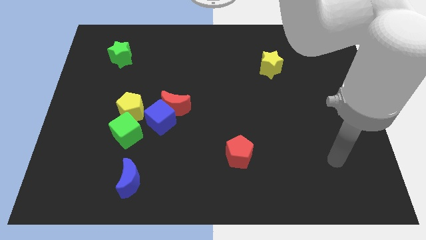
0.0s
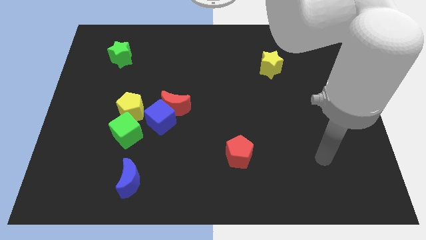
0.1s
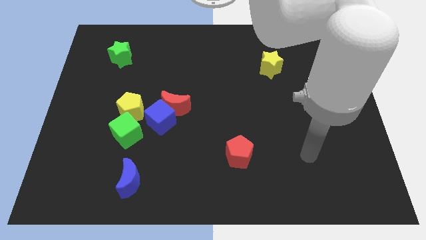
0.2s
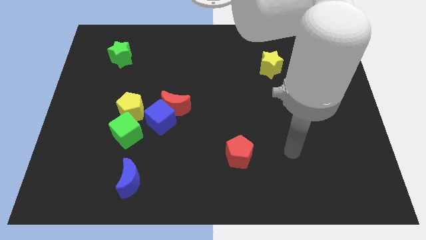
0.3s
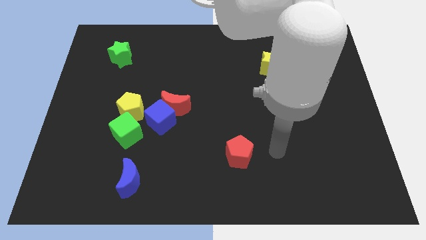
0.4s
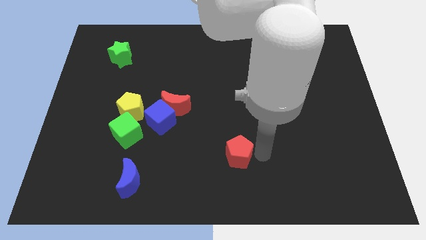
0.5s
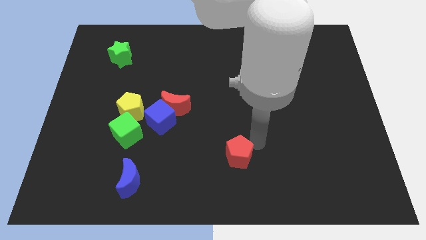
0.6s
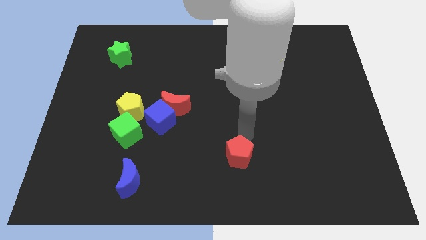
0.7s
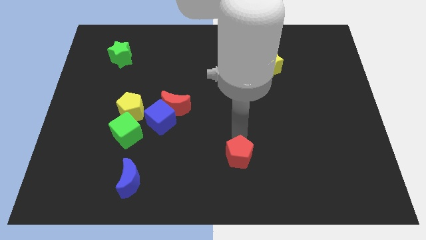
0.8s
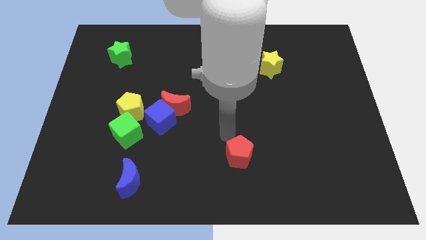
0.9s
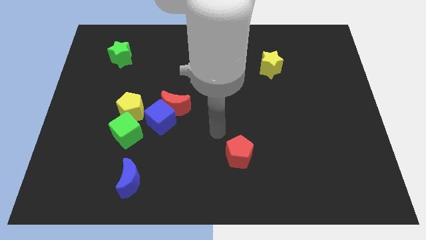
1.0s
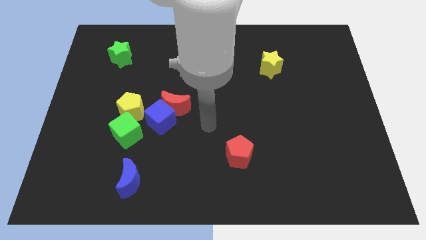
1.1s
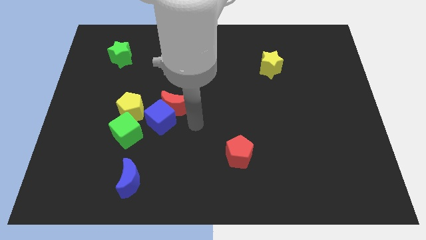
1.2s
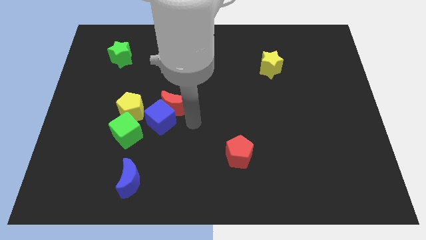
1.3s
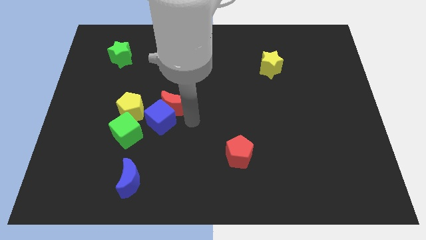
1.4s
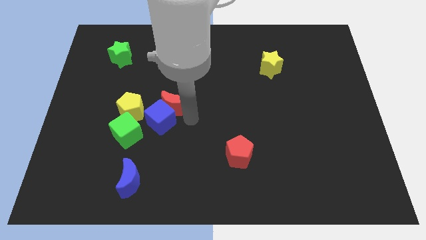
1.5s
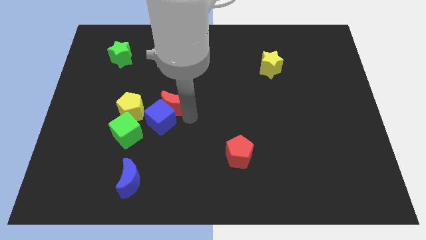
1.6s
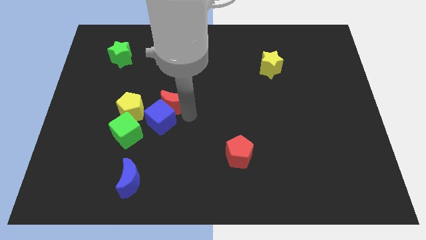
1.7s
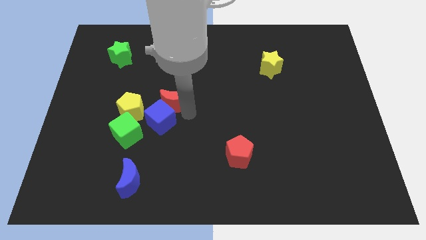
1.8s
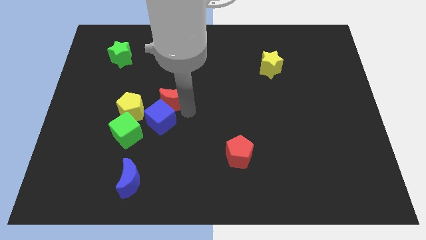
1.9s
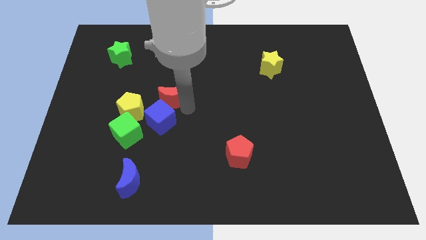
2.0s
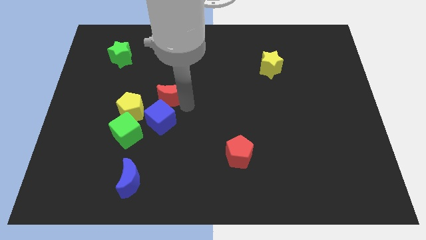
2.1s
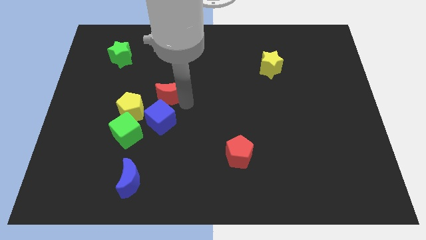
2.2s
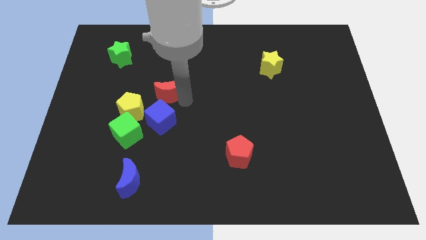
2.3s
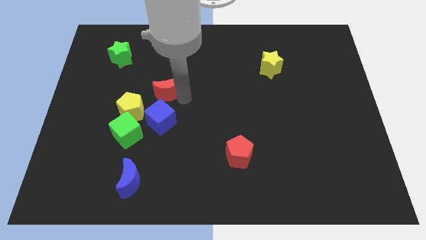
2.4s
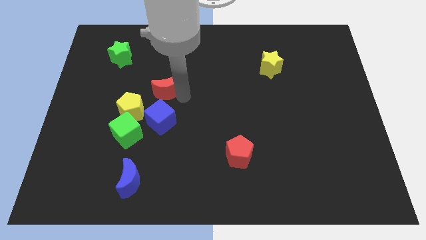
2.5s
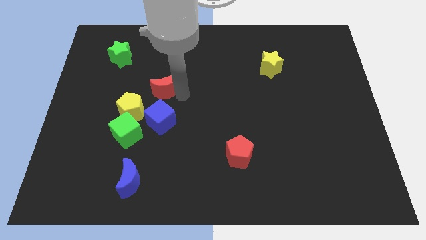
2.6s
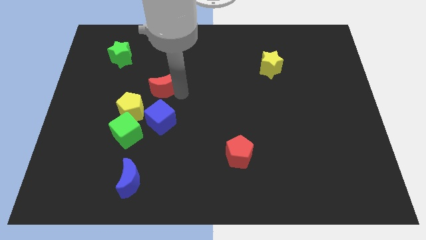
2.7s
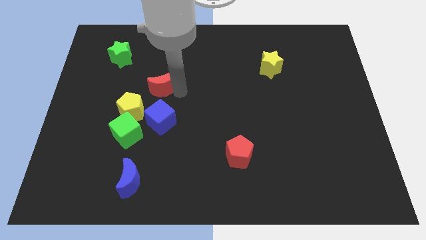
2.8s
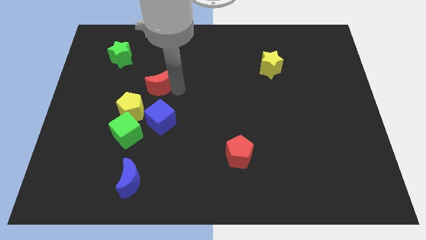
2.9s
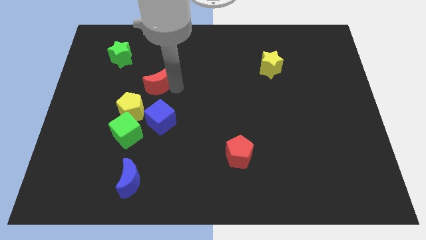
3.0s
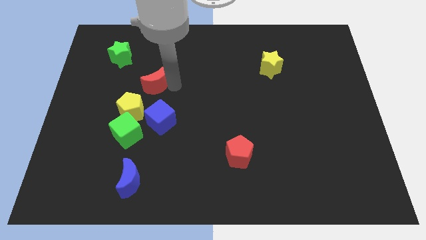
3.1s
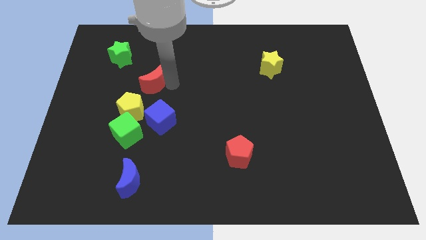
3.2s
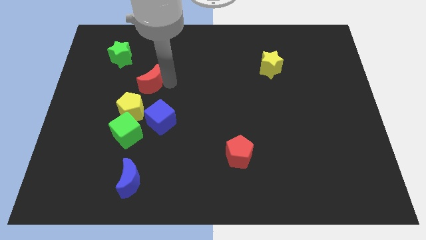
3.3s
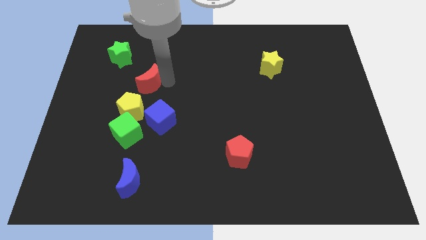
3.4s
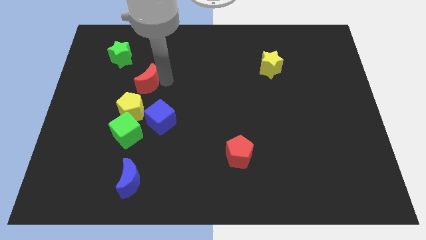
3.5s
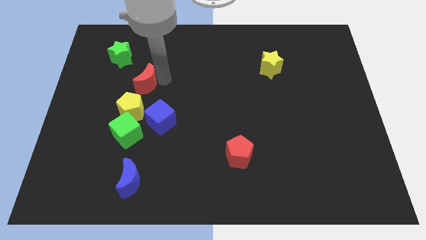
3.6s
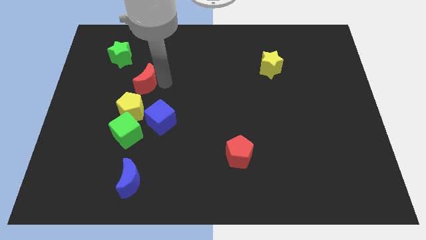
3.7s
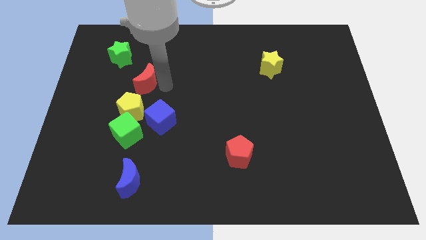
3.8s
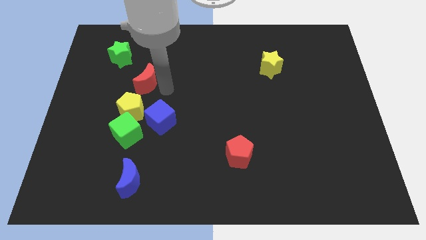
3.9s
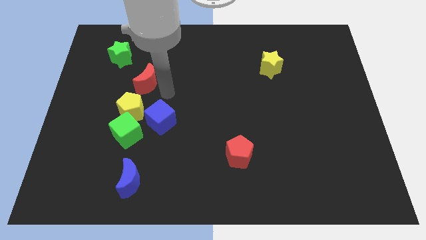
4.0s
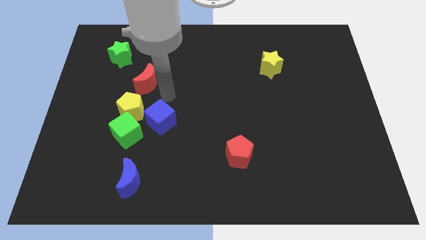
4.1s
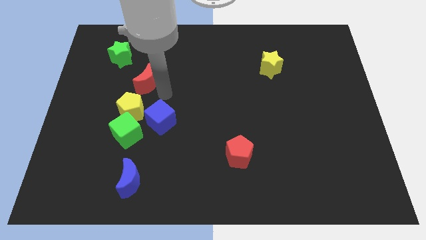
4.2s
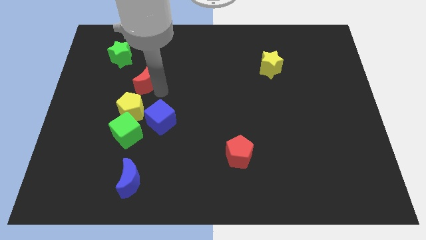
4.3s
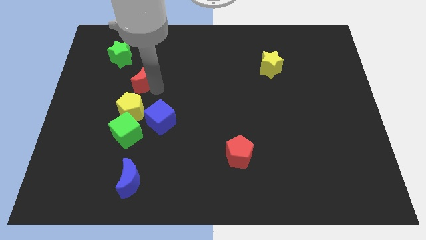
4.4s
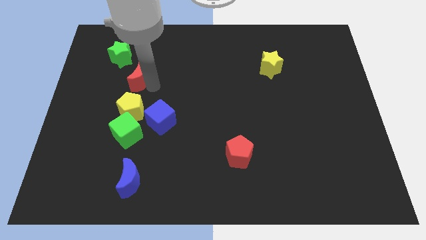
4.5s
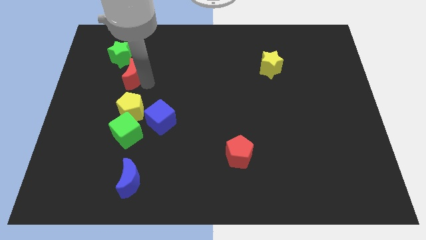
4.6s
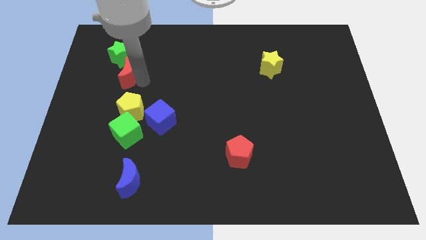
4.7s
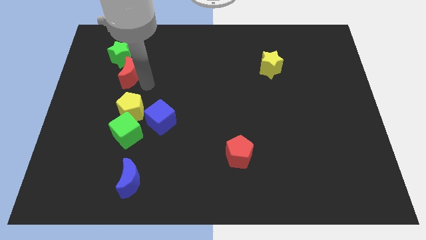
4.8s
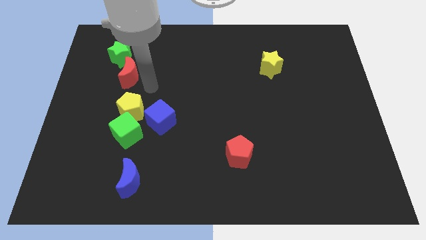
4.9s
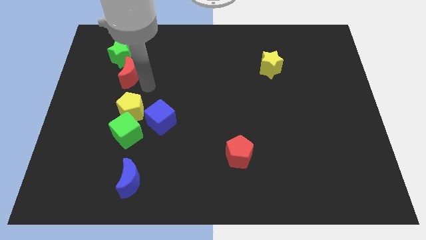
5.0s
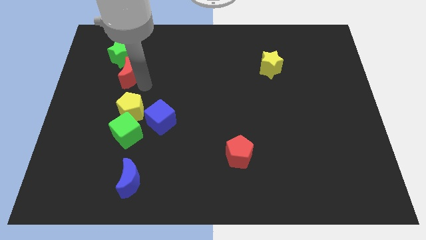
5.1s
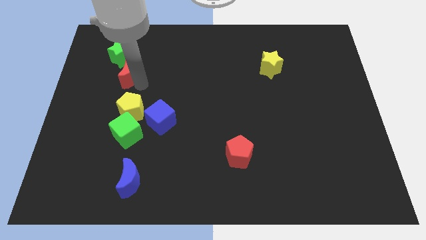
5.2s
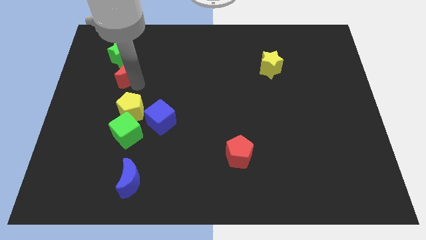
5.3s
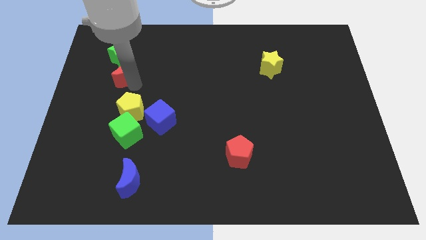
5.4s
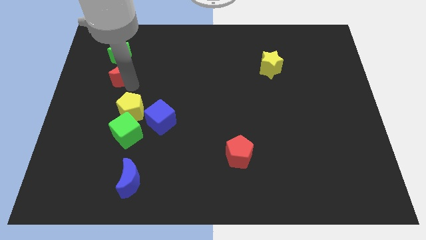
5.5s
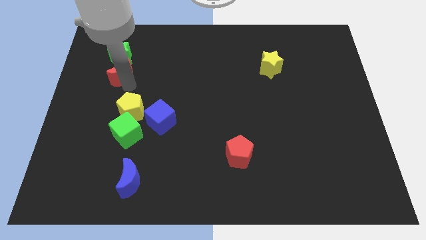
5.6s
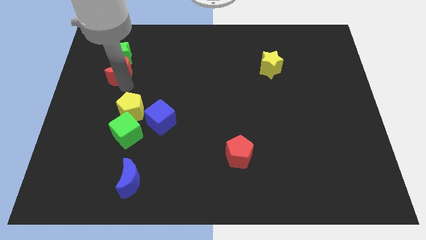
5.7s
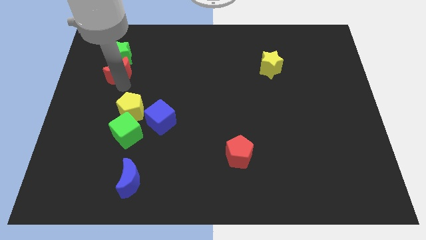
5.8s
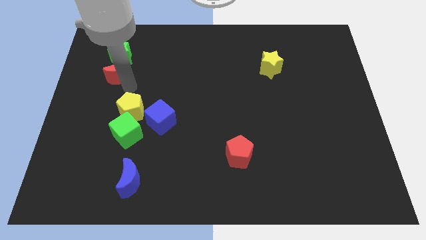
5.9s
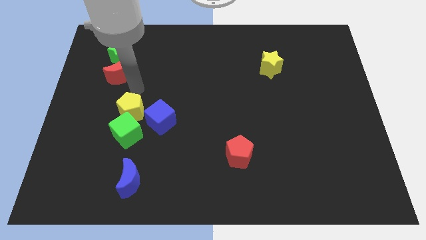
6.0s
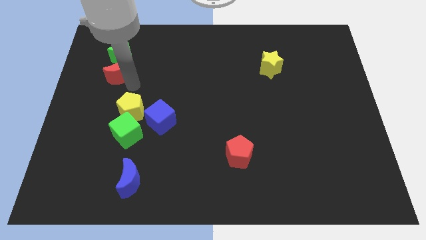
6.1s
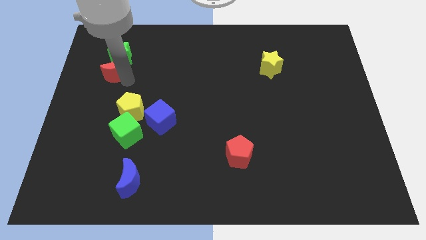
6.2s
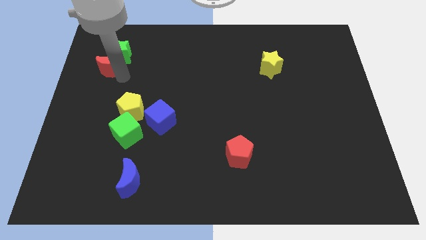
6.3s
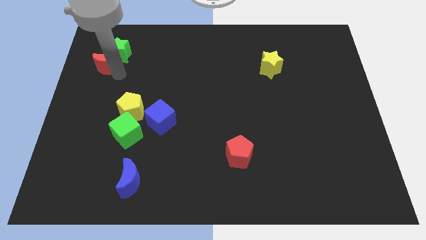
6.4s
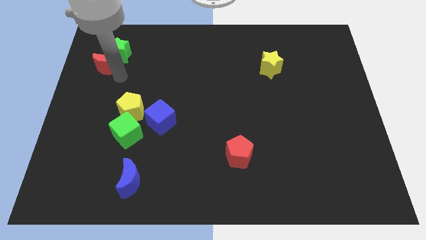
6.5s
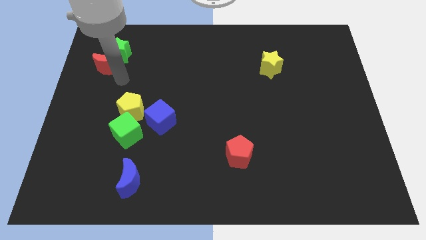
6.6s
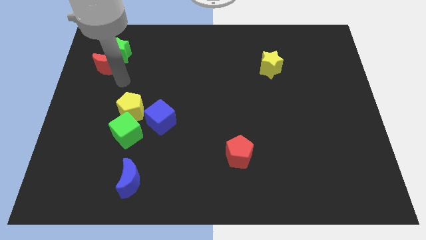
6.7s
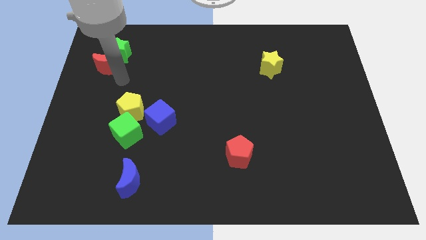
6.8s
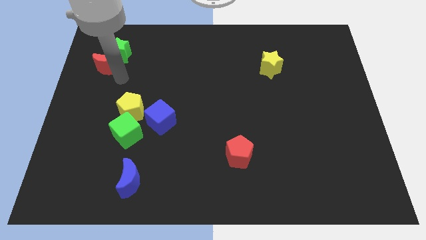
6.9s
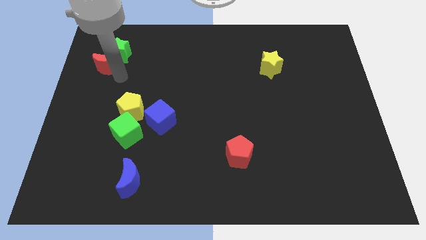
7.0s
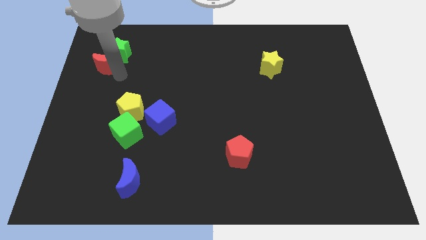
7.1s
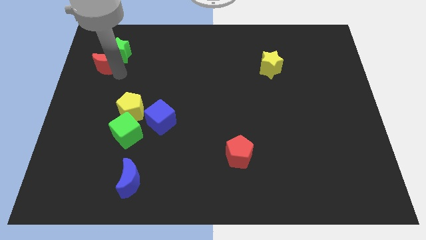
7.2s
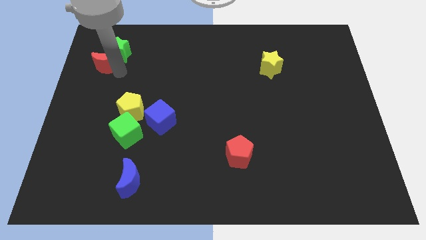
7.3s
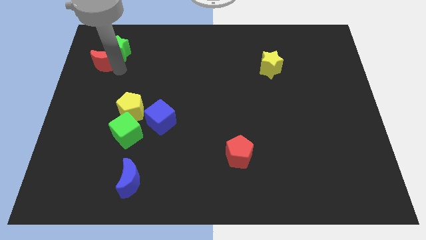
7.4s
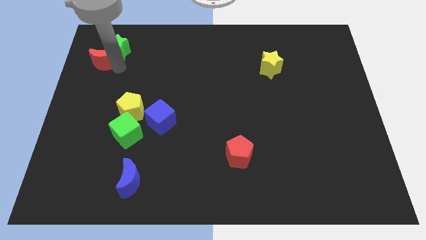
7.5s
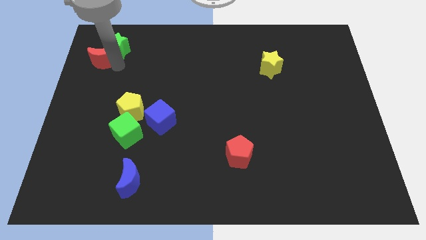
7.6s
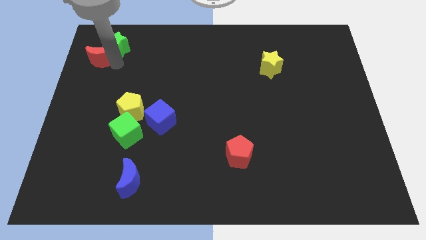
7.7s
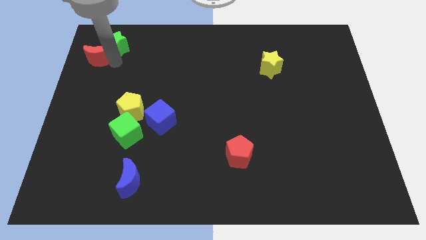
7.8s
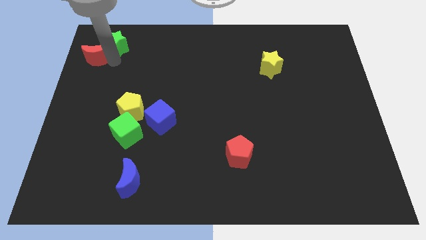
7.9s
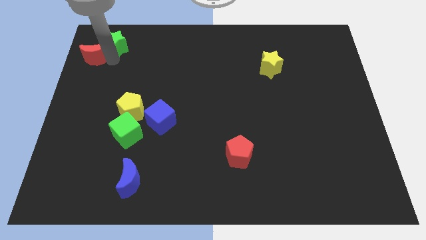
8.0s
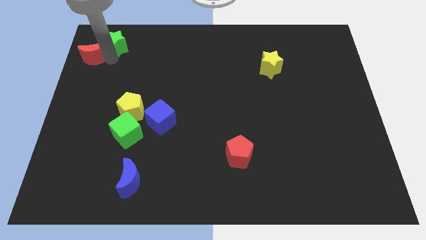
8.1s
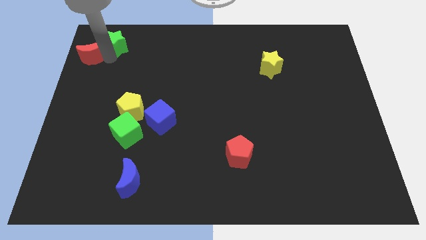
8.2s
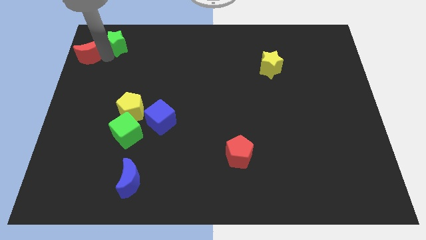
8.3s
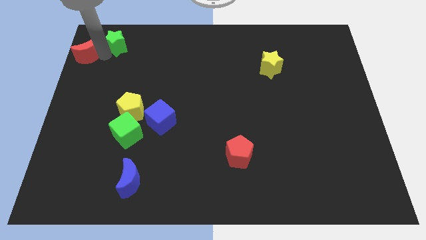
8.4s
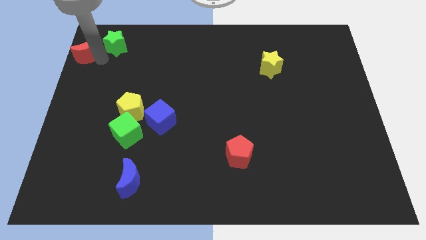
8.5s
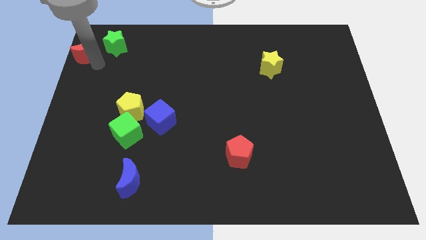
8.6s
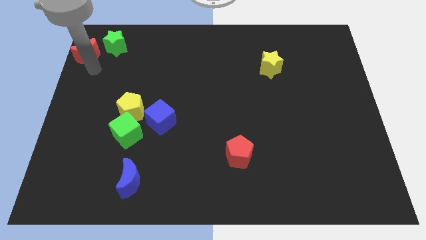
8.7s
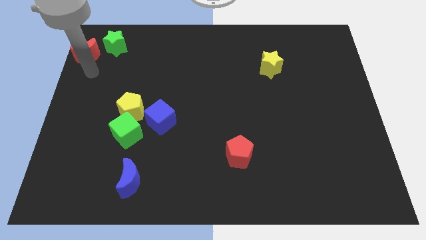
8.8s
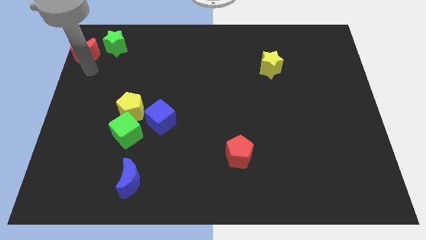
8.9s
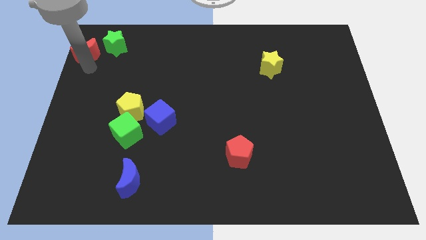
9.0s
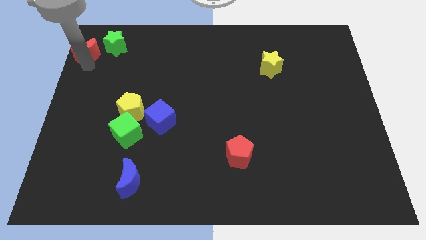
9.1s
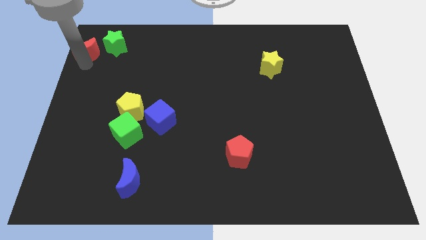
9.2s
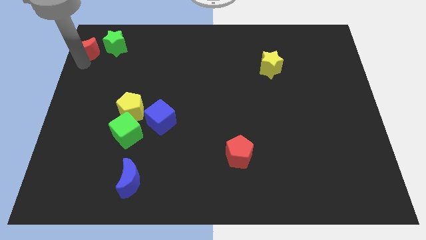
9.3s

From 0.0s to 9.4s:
put the red moon to the top left of the board
